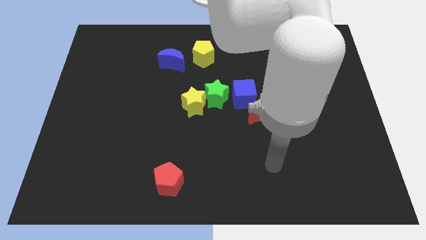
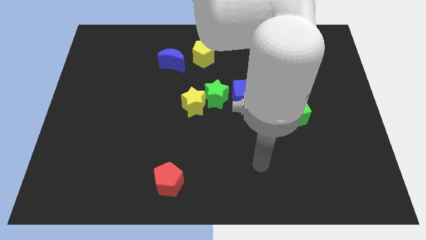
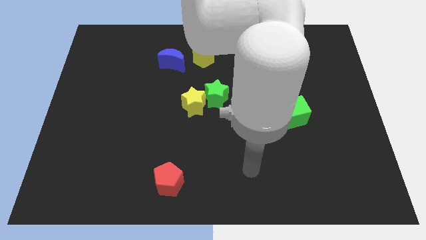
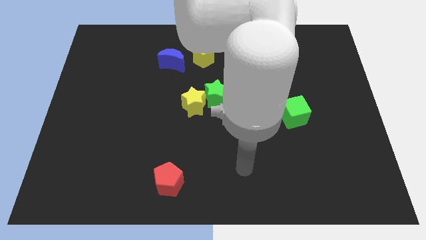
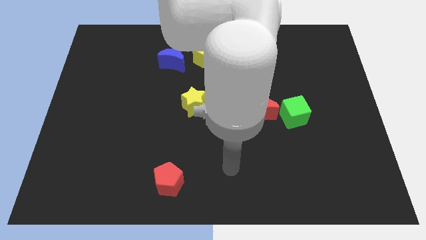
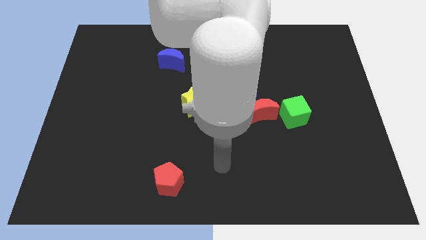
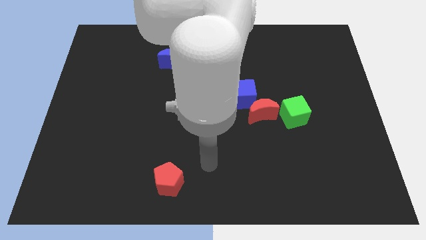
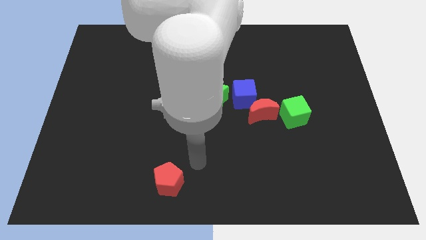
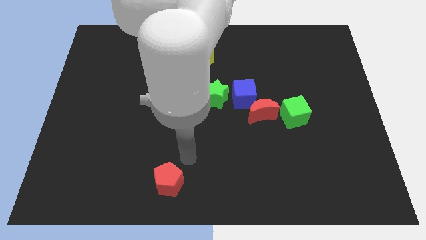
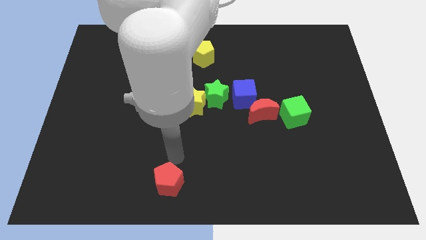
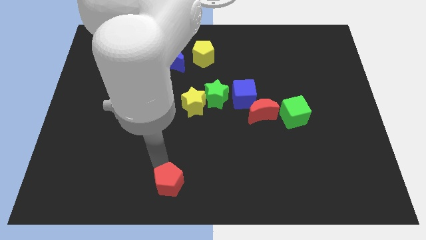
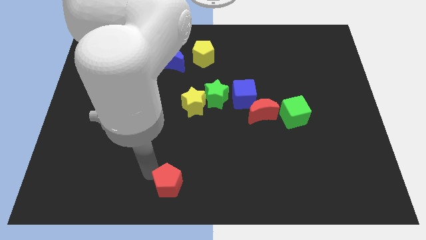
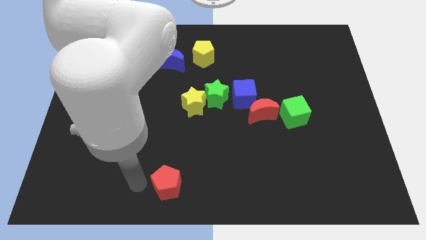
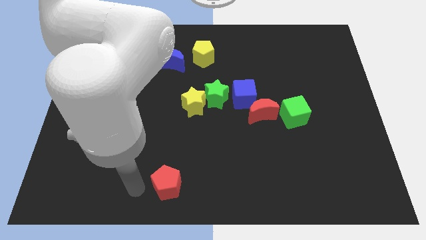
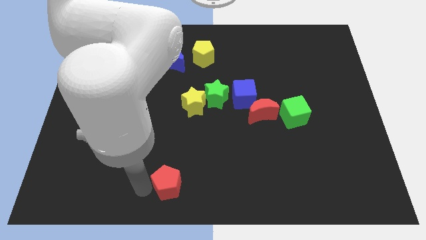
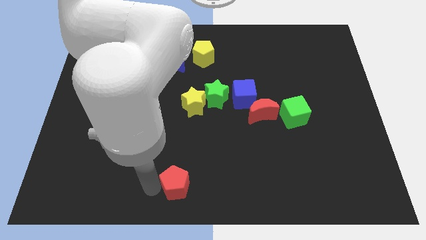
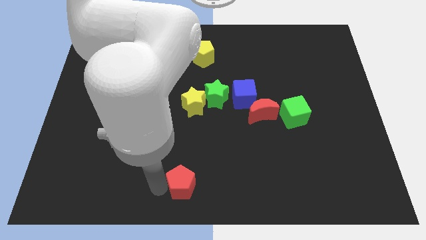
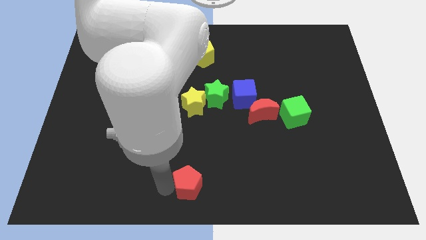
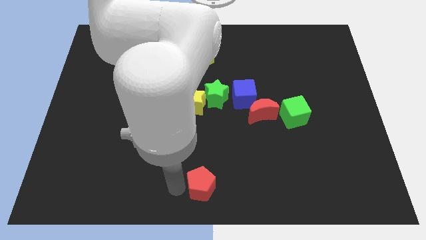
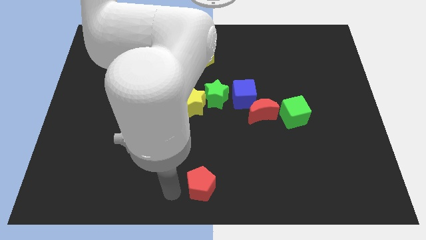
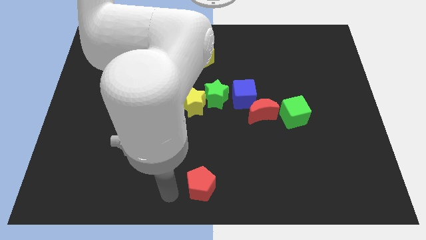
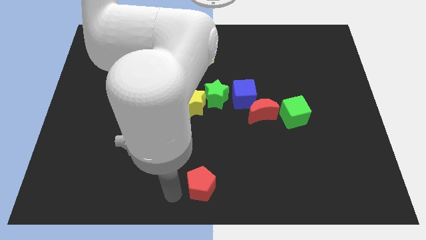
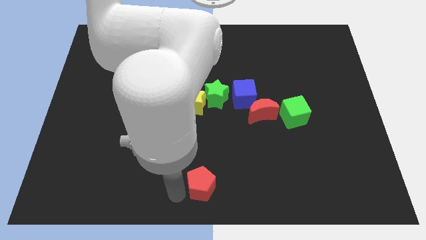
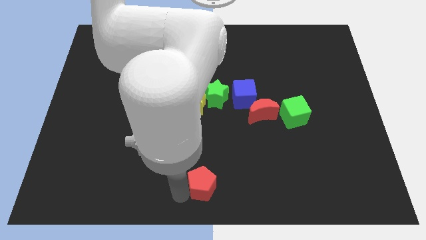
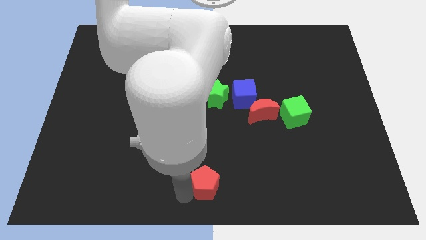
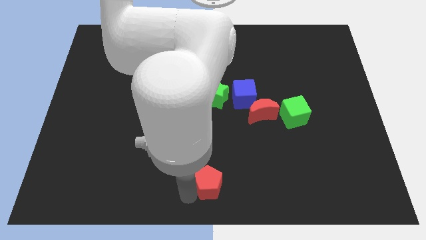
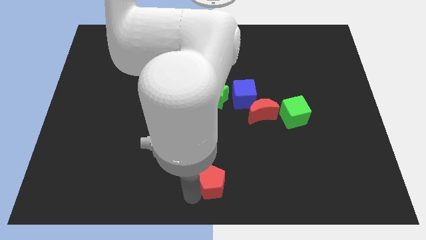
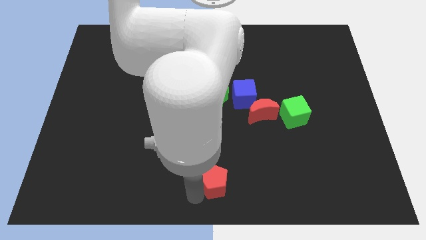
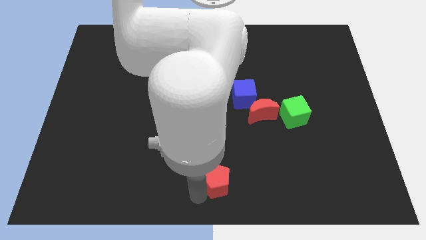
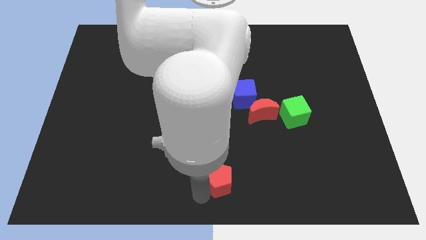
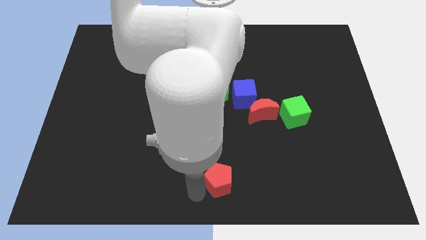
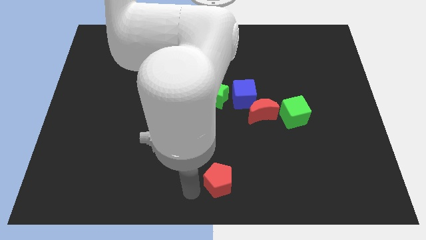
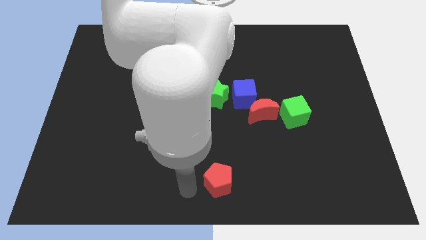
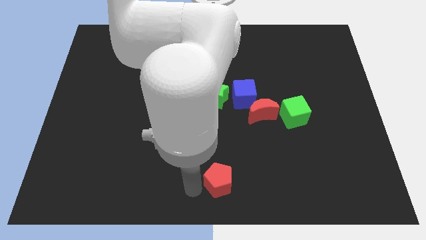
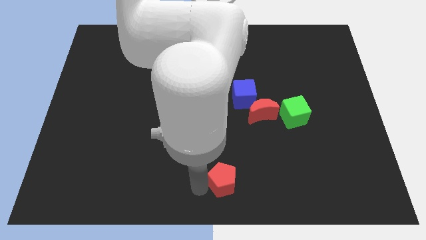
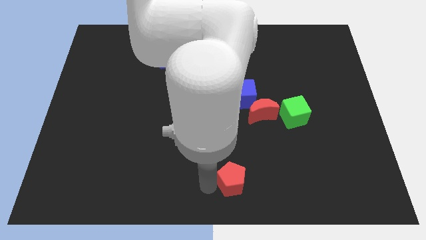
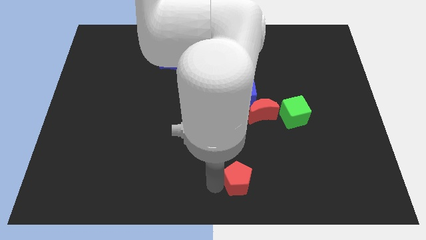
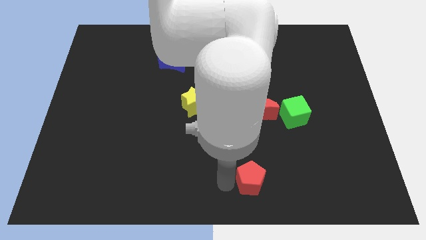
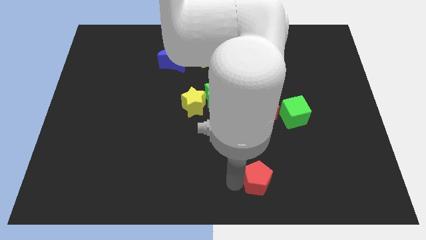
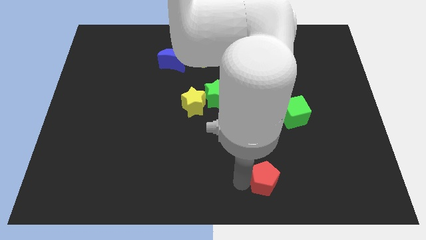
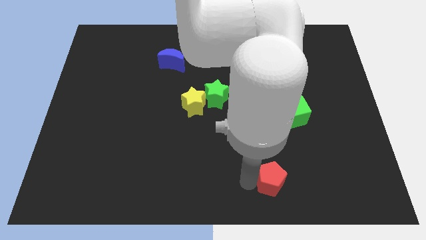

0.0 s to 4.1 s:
move the red pentagon to the right

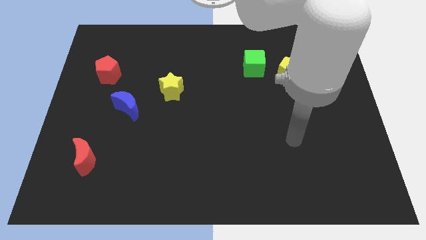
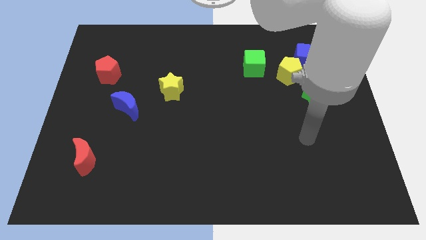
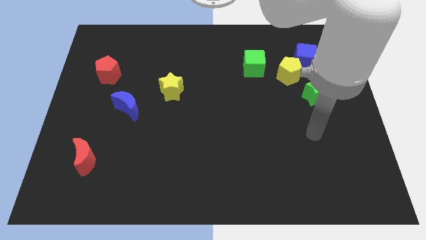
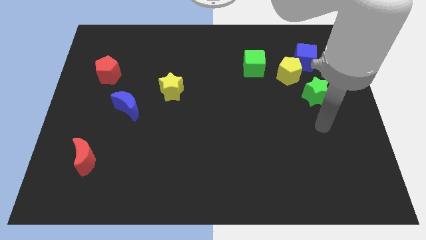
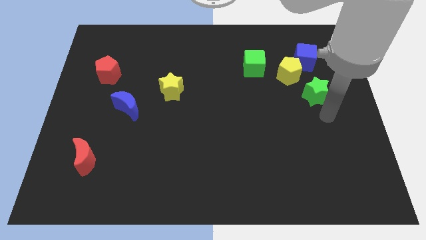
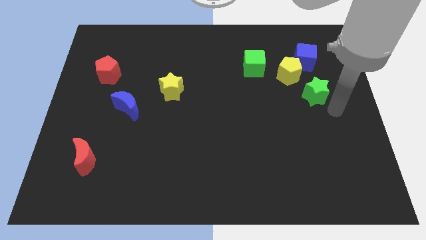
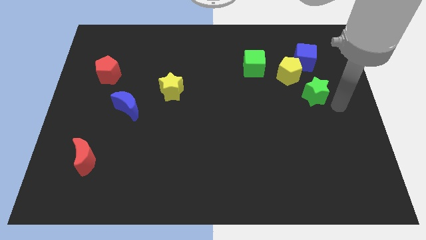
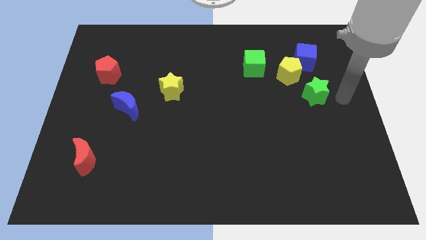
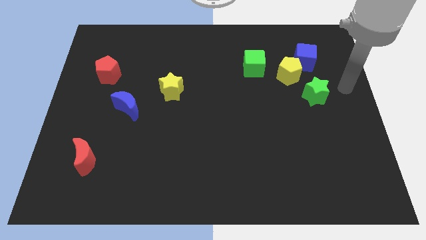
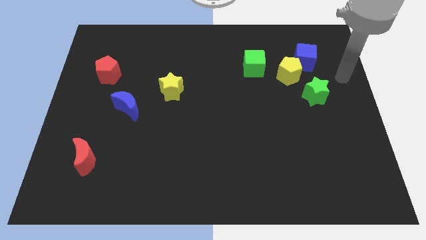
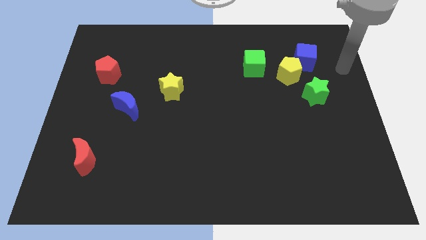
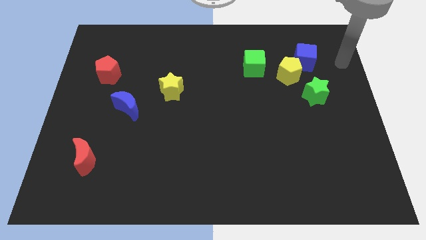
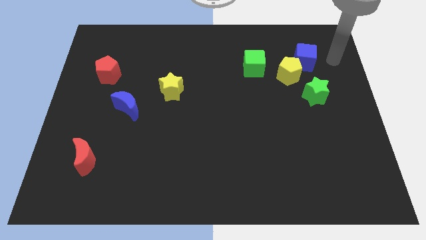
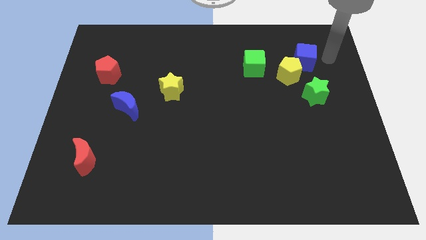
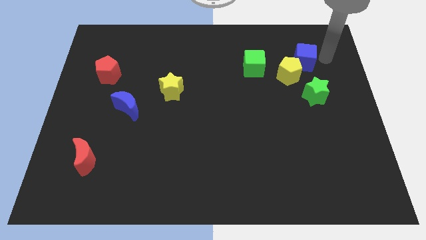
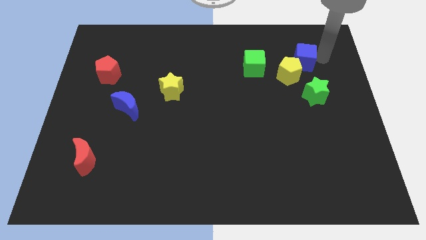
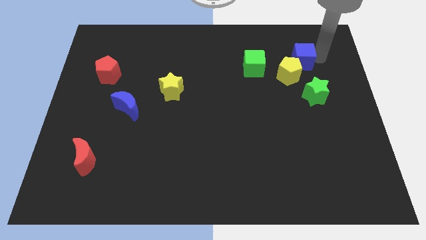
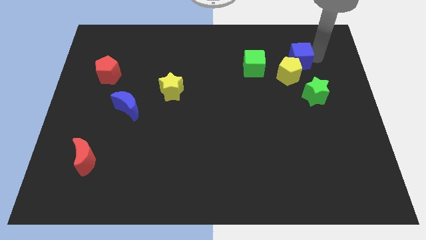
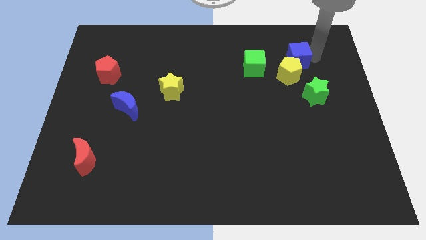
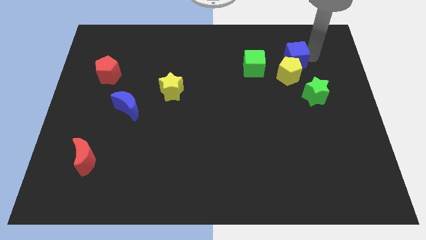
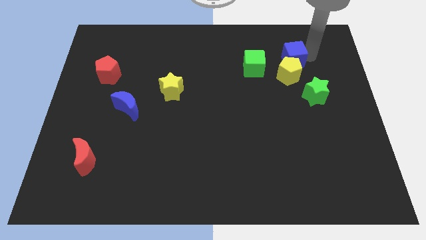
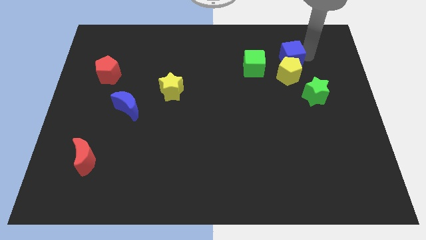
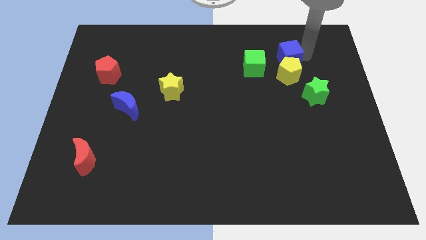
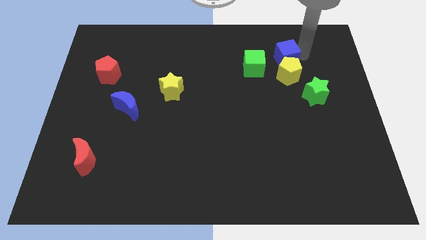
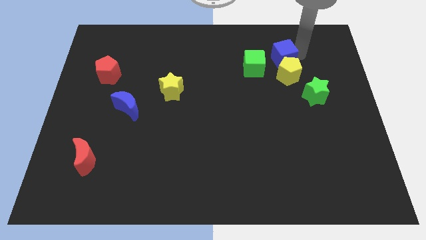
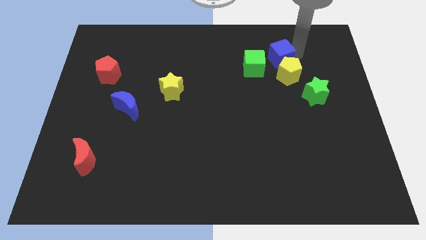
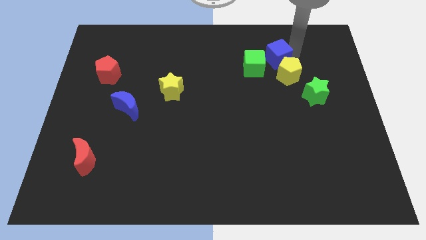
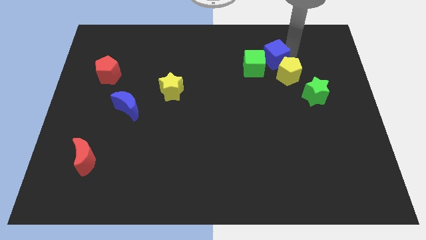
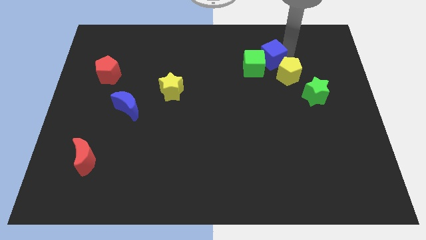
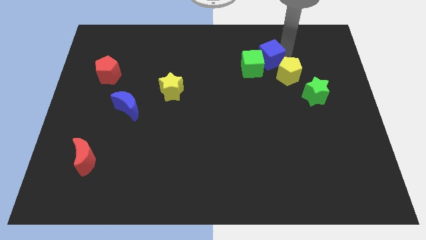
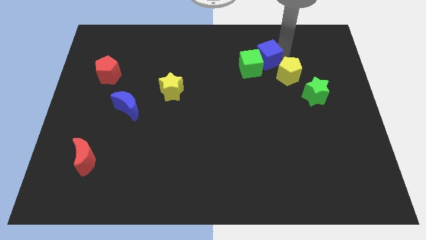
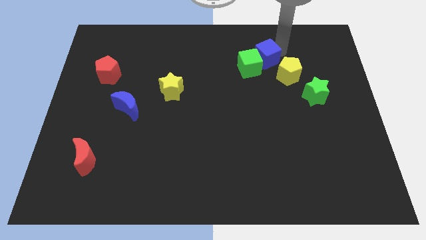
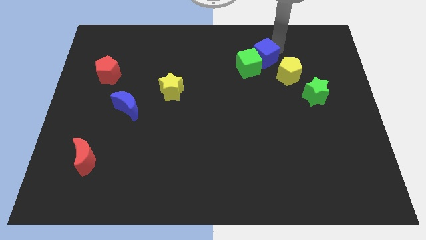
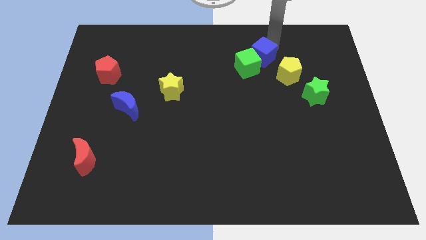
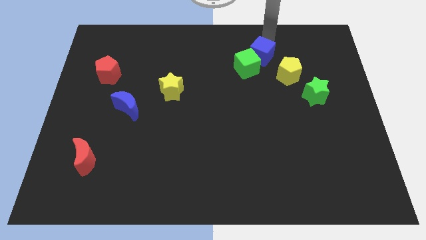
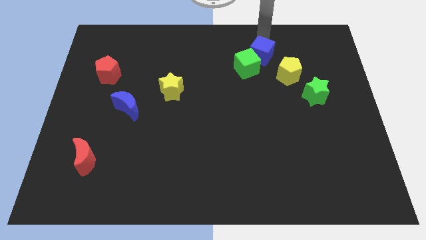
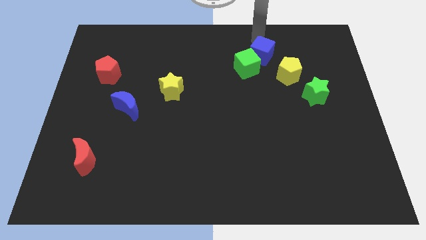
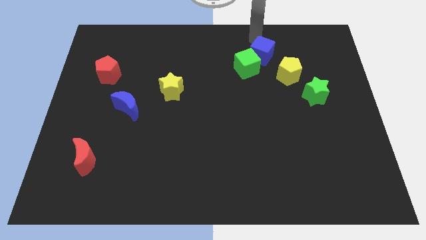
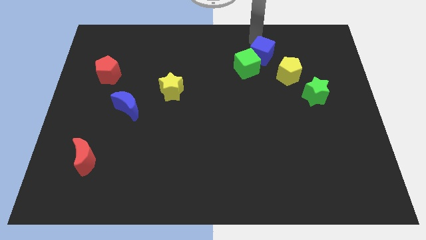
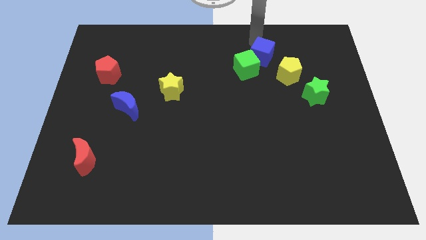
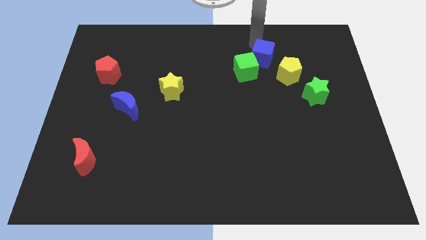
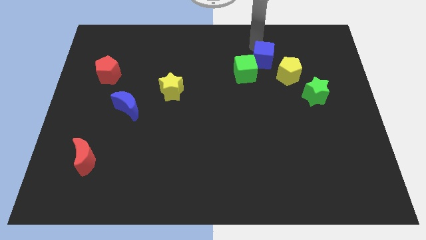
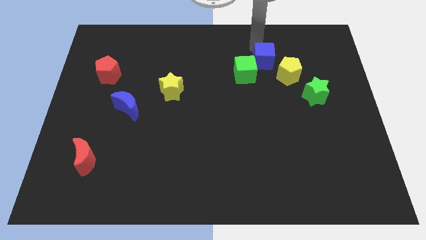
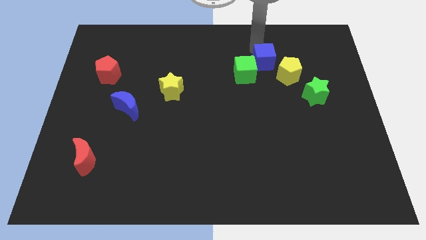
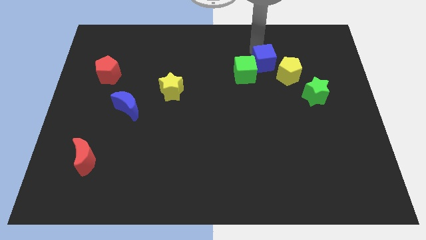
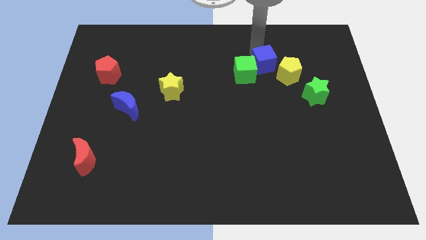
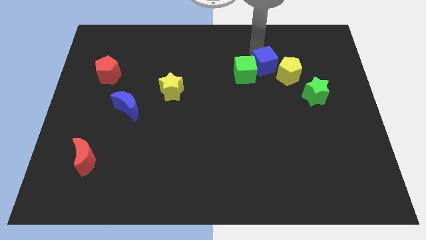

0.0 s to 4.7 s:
slightly slide the blue cube diagonally downwards and left
